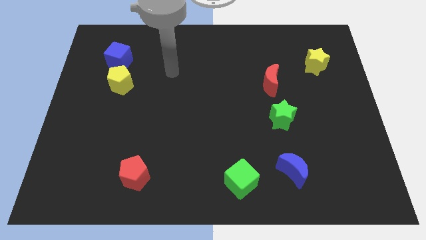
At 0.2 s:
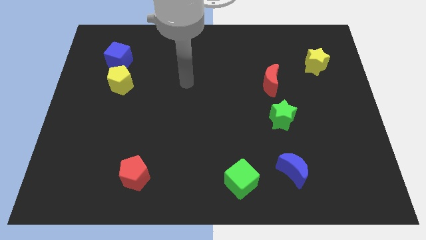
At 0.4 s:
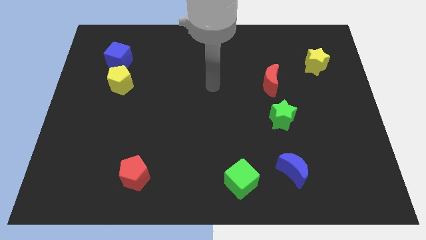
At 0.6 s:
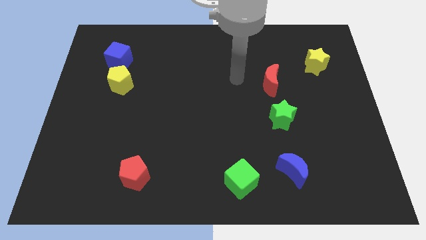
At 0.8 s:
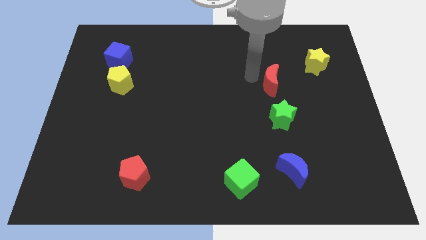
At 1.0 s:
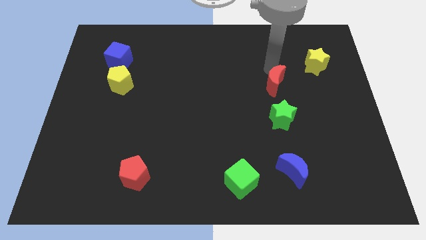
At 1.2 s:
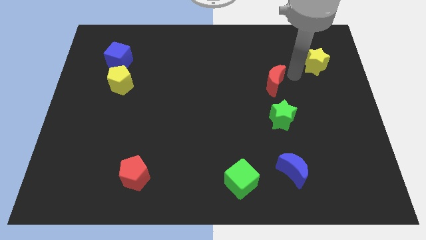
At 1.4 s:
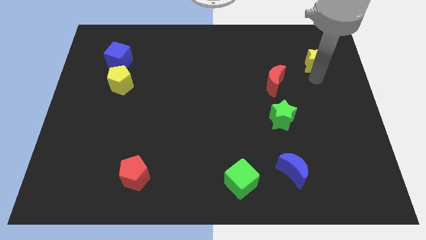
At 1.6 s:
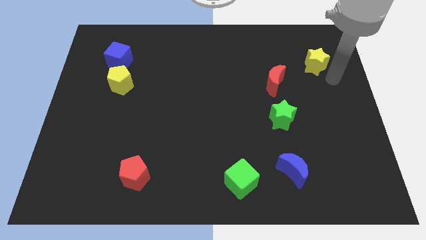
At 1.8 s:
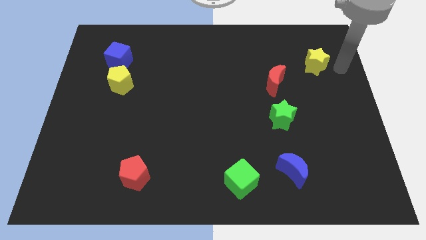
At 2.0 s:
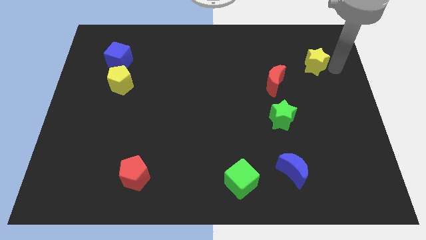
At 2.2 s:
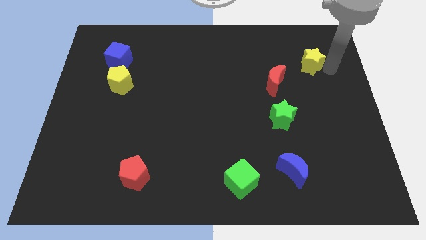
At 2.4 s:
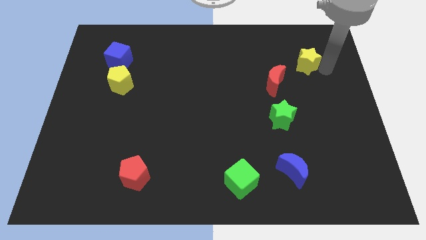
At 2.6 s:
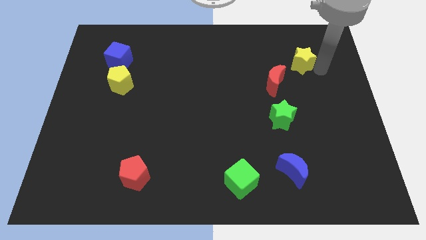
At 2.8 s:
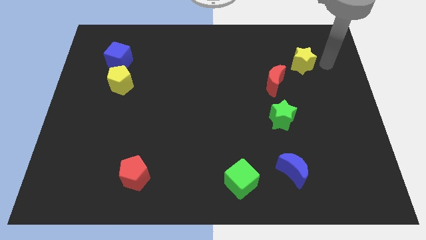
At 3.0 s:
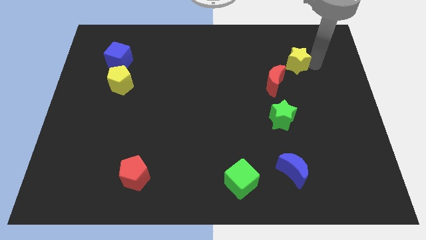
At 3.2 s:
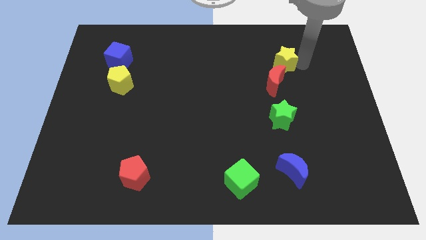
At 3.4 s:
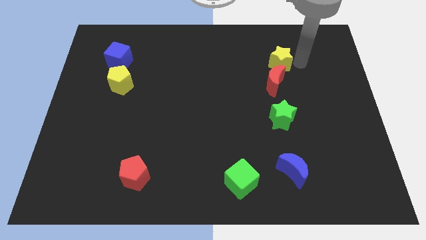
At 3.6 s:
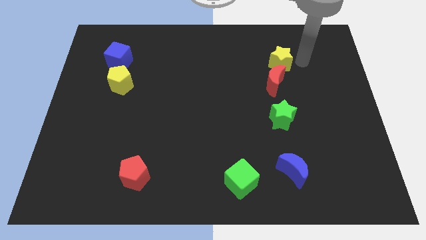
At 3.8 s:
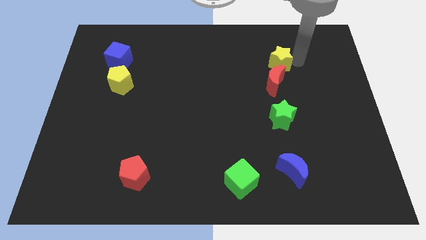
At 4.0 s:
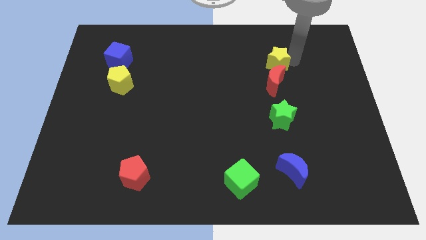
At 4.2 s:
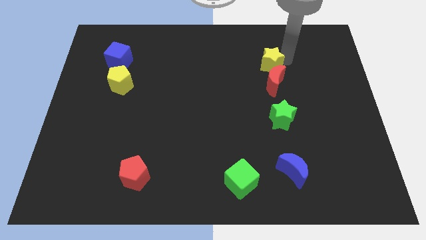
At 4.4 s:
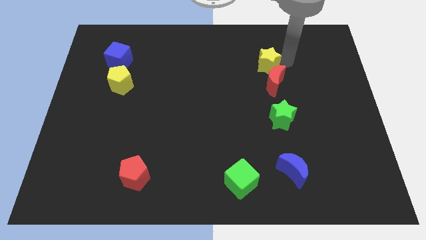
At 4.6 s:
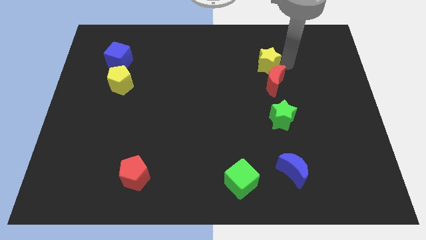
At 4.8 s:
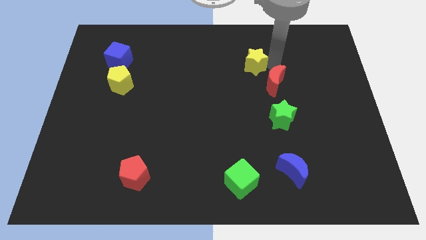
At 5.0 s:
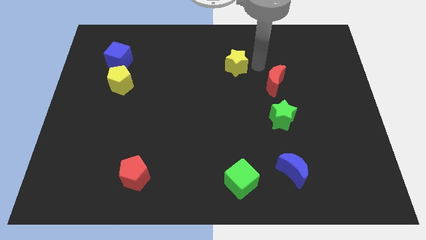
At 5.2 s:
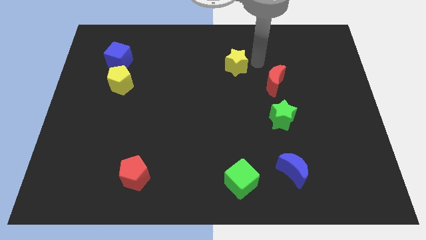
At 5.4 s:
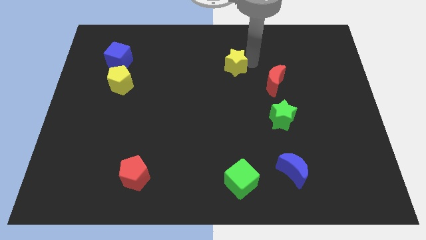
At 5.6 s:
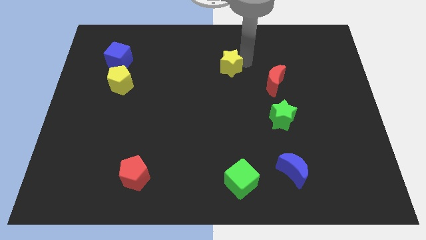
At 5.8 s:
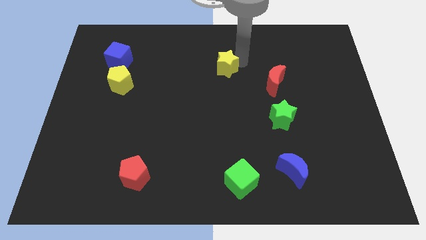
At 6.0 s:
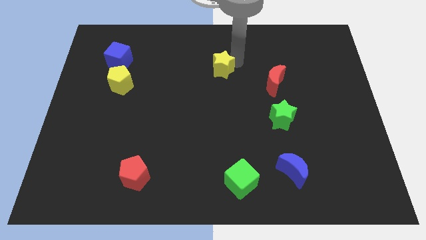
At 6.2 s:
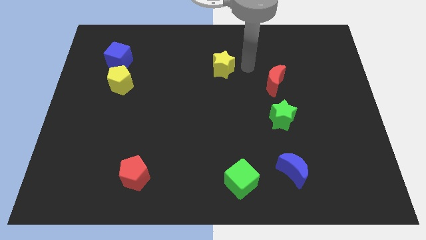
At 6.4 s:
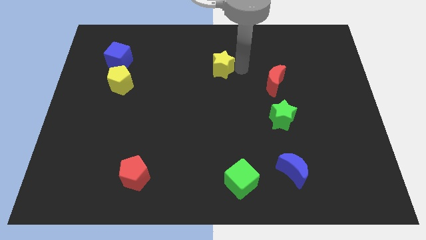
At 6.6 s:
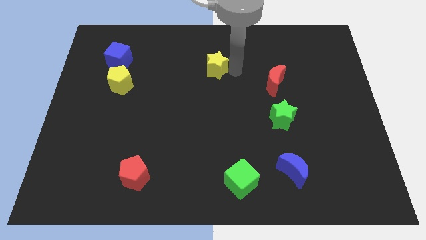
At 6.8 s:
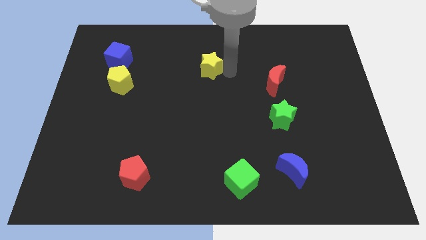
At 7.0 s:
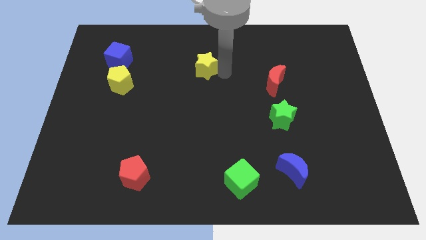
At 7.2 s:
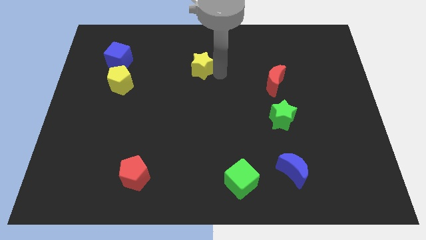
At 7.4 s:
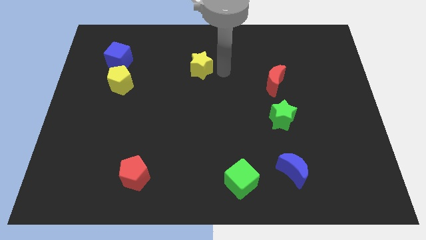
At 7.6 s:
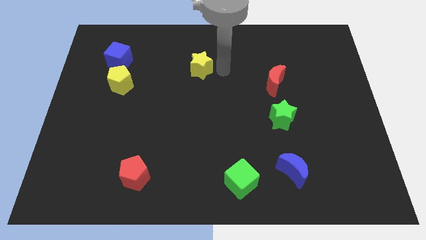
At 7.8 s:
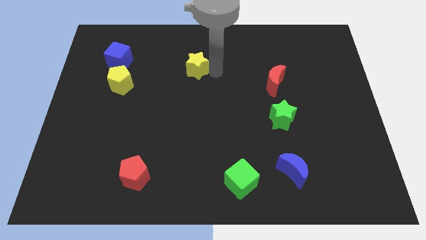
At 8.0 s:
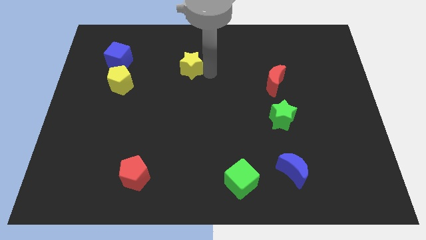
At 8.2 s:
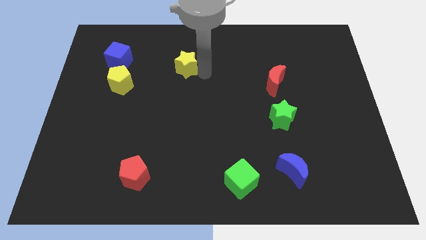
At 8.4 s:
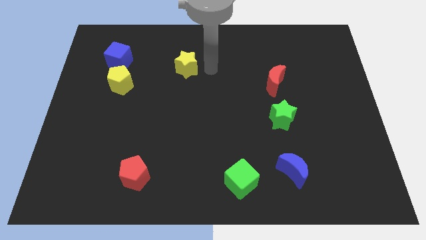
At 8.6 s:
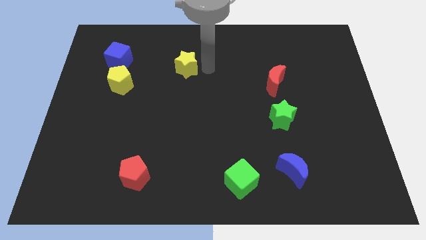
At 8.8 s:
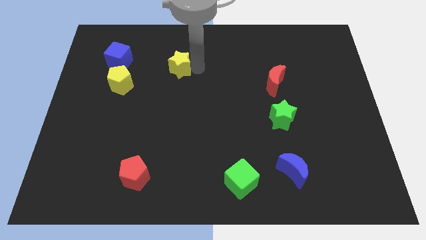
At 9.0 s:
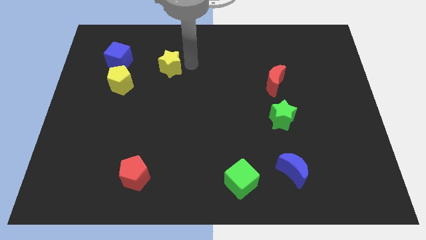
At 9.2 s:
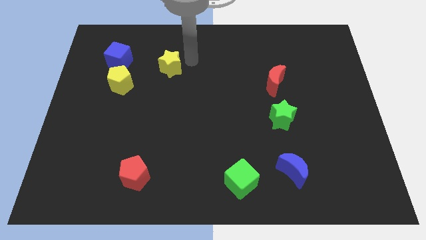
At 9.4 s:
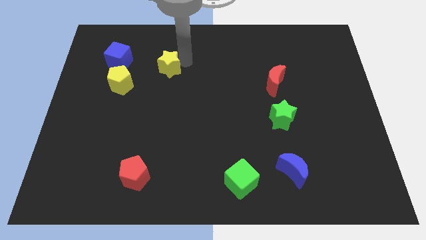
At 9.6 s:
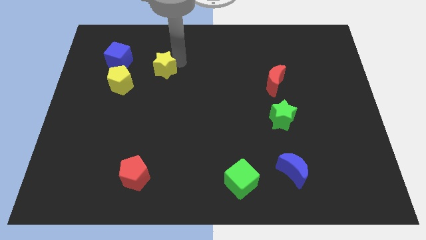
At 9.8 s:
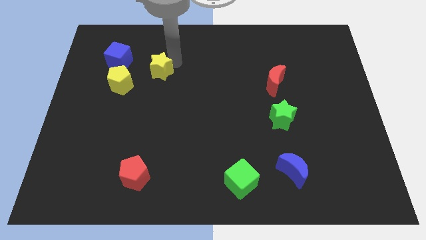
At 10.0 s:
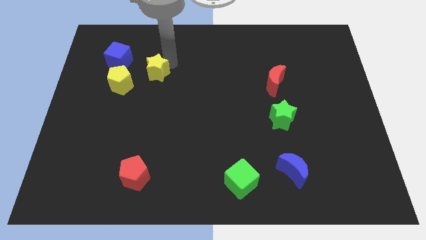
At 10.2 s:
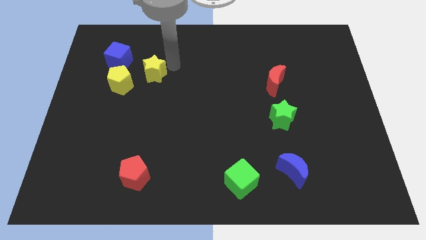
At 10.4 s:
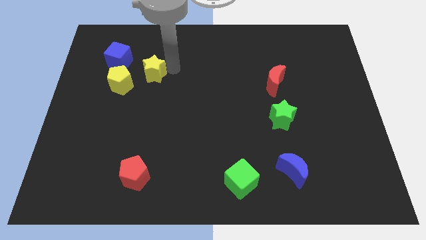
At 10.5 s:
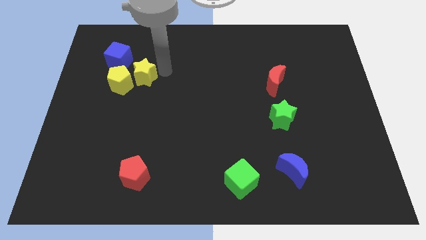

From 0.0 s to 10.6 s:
slide the yellow star to the yellow pentagon

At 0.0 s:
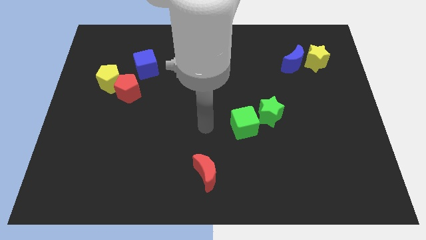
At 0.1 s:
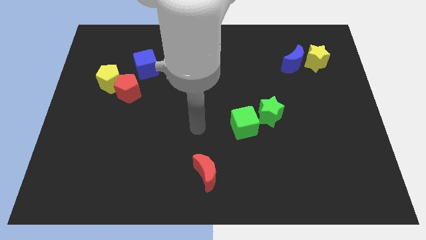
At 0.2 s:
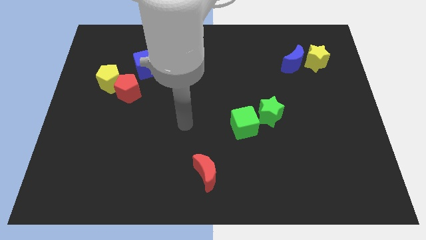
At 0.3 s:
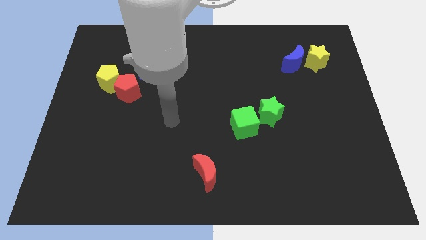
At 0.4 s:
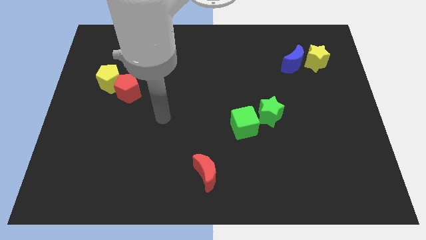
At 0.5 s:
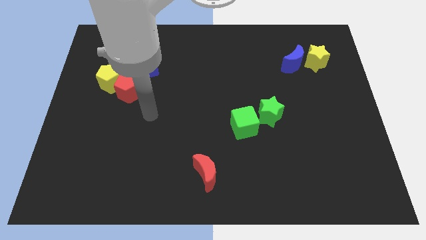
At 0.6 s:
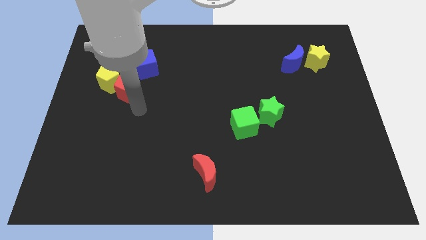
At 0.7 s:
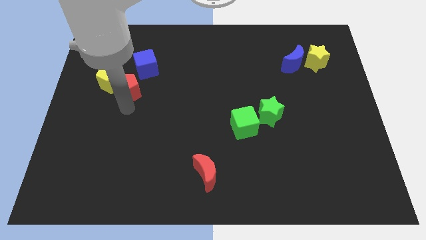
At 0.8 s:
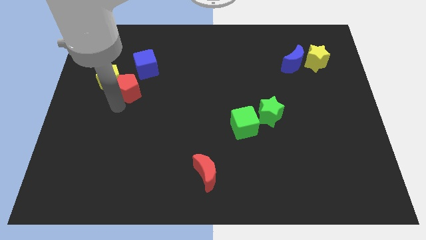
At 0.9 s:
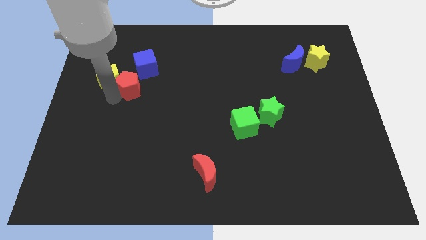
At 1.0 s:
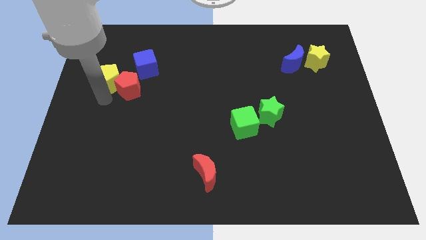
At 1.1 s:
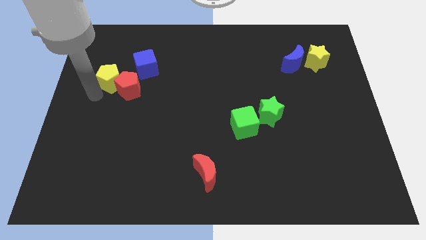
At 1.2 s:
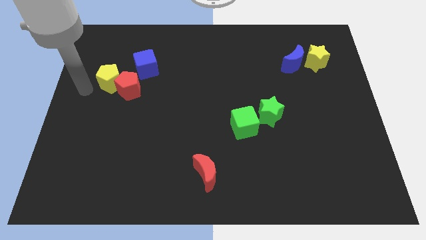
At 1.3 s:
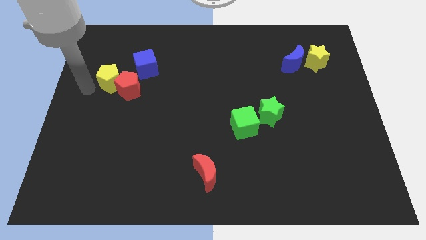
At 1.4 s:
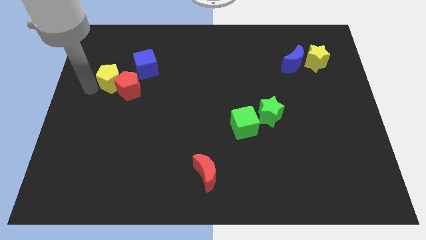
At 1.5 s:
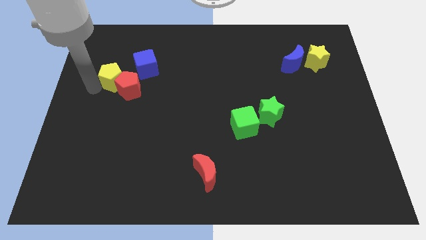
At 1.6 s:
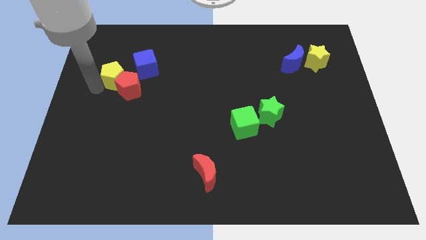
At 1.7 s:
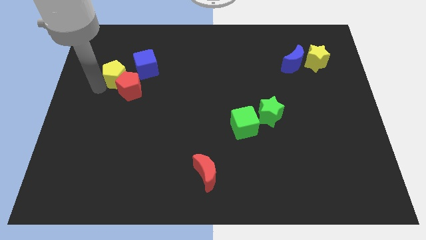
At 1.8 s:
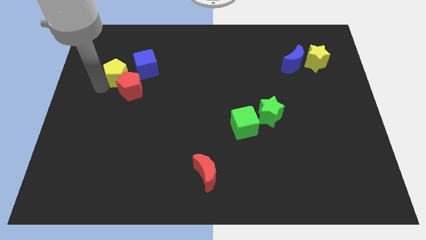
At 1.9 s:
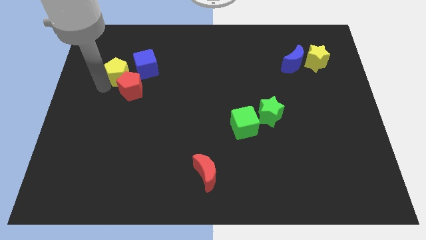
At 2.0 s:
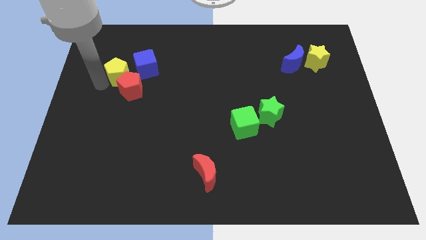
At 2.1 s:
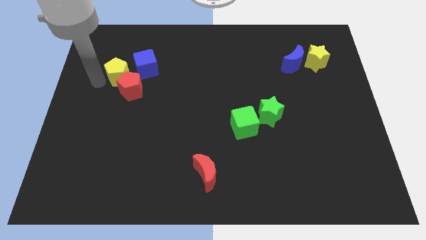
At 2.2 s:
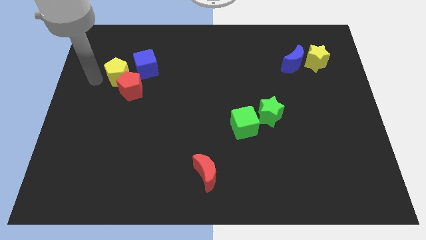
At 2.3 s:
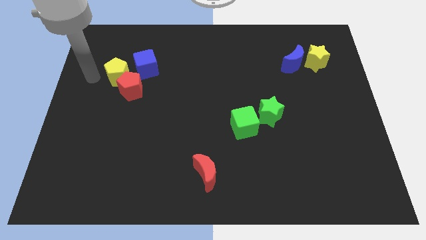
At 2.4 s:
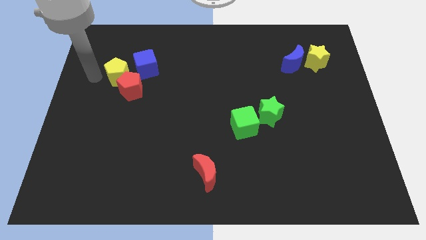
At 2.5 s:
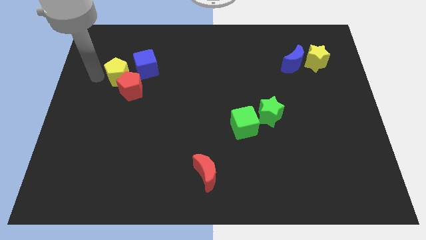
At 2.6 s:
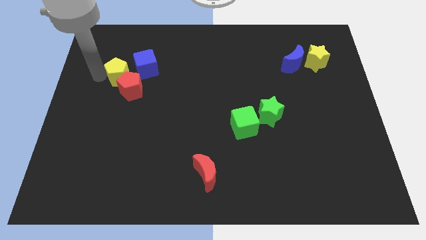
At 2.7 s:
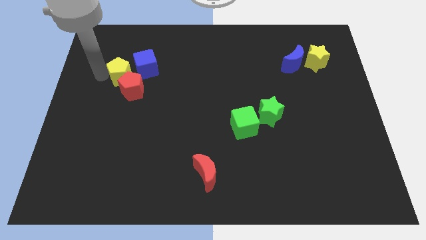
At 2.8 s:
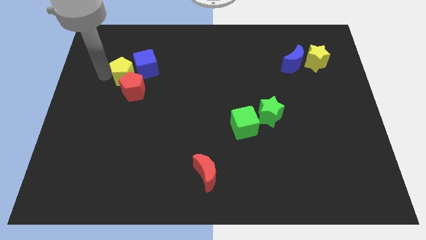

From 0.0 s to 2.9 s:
put the yellow pentagon next to the blue cube
